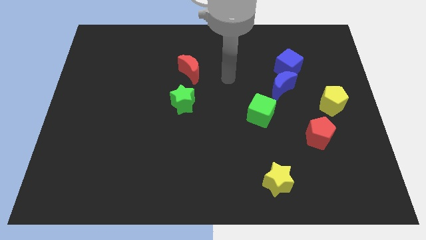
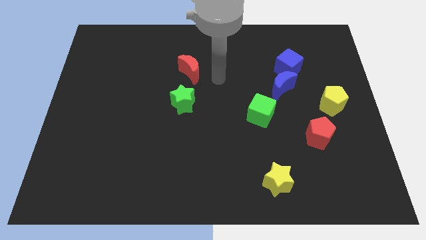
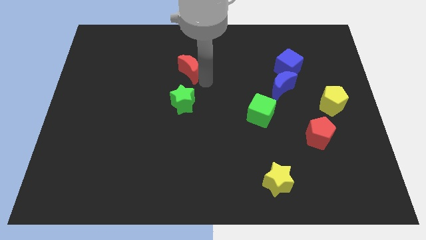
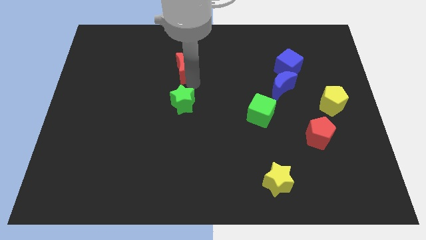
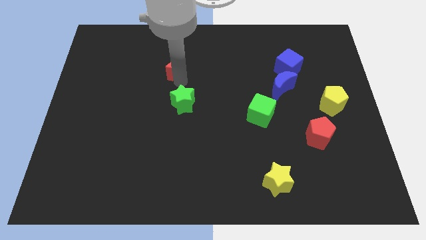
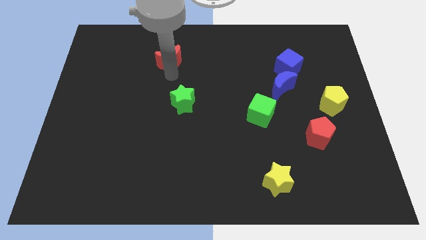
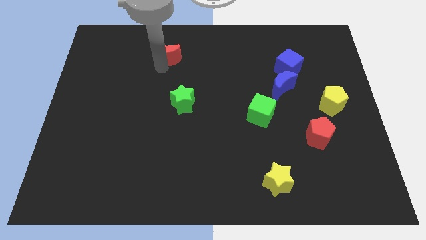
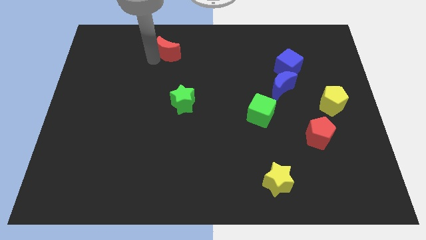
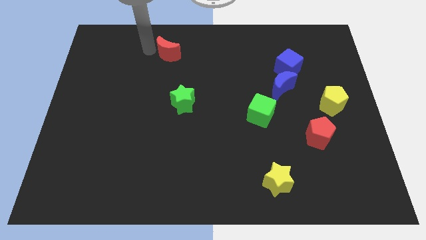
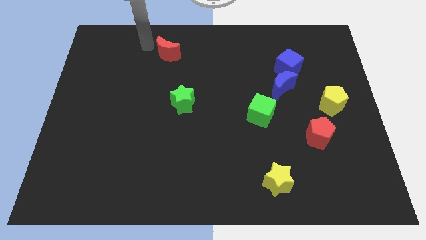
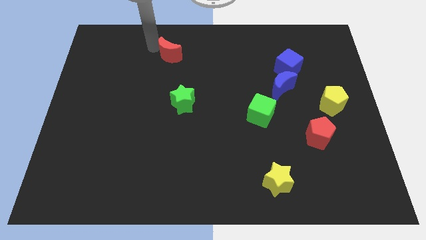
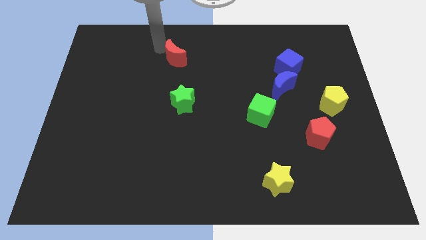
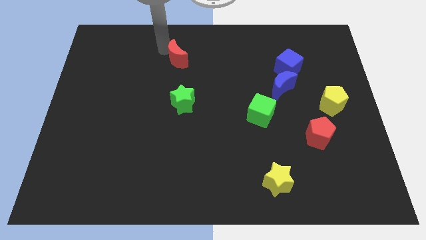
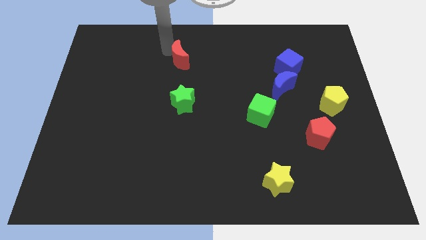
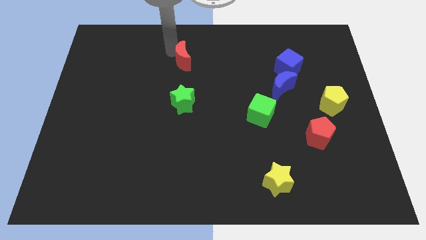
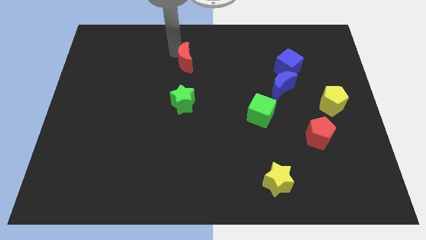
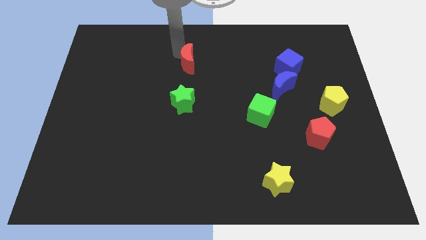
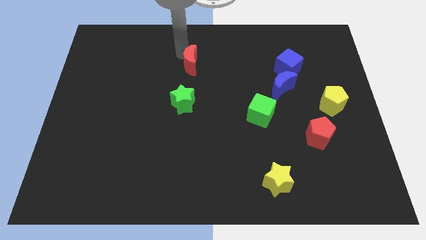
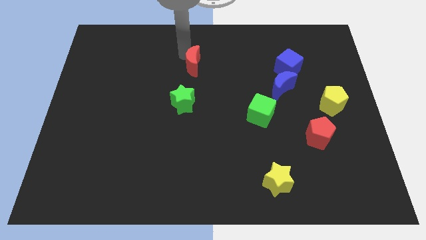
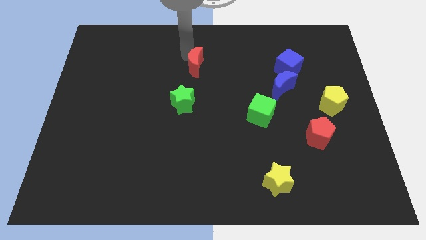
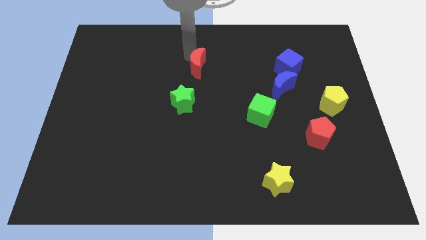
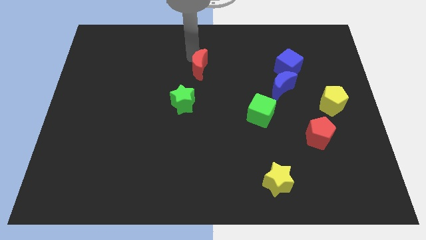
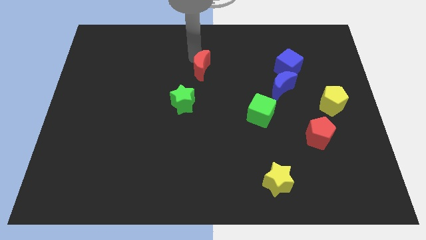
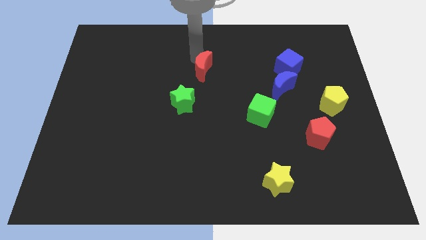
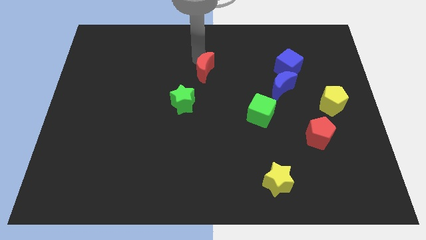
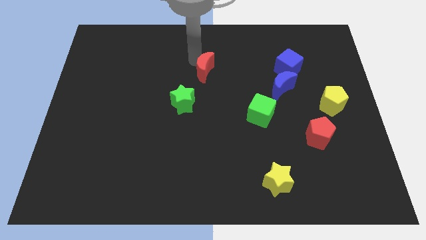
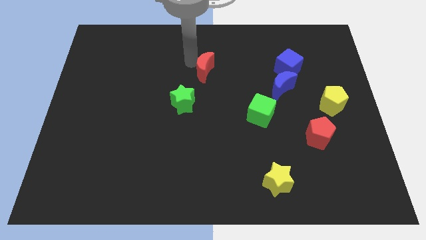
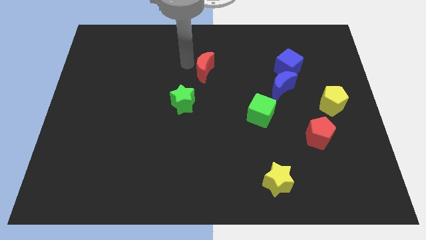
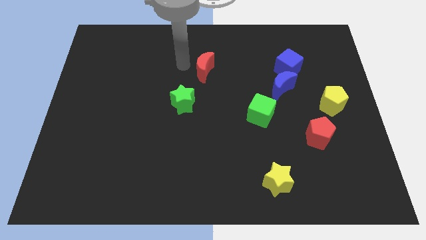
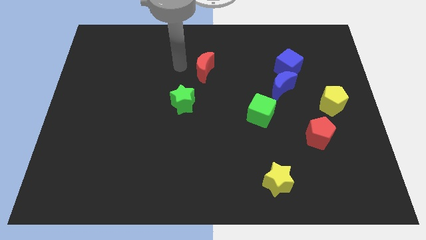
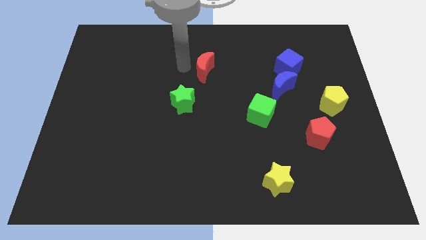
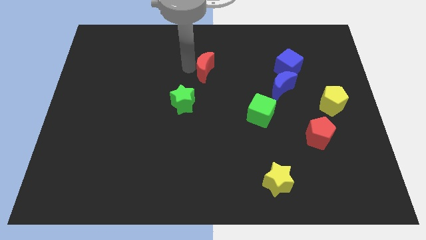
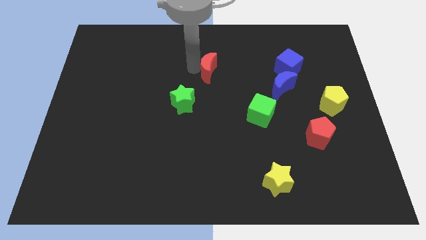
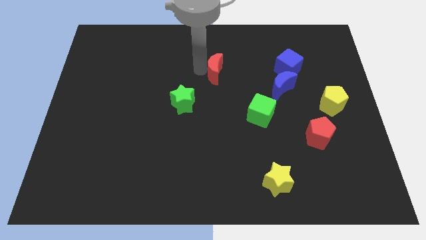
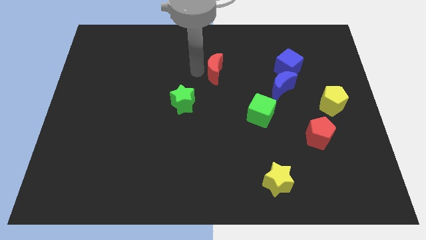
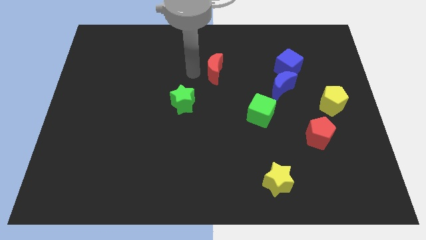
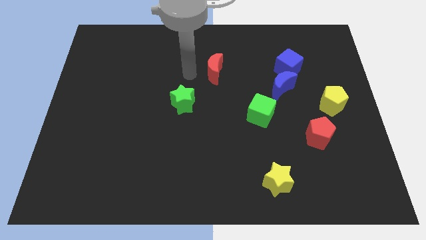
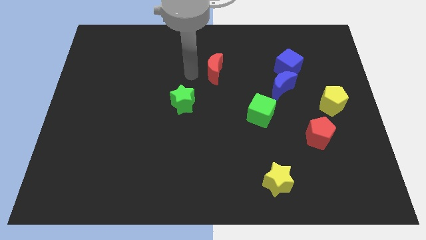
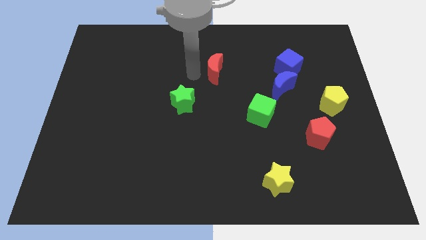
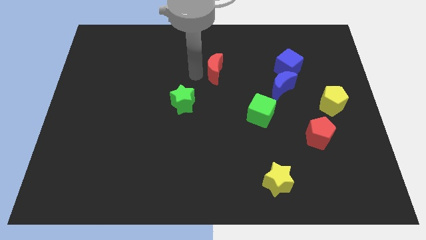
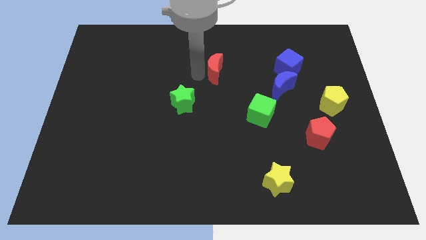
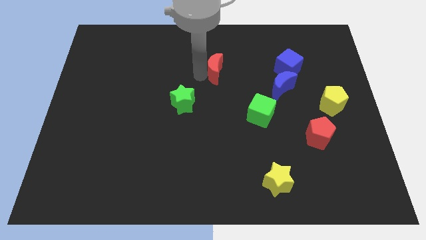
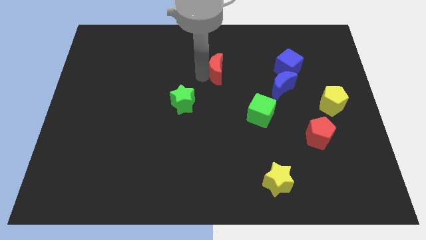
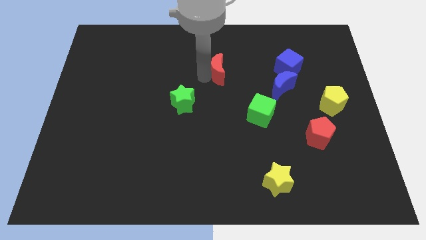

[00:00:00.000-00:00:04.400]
slightly slide the red moon to the right

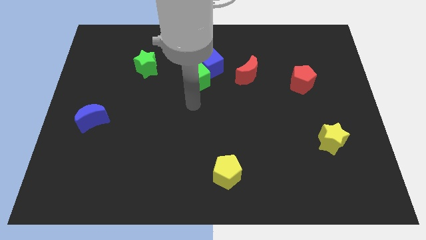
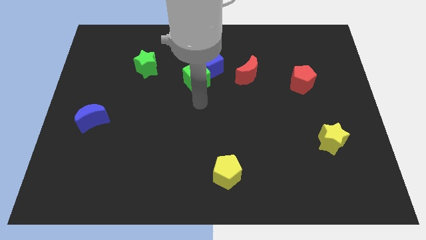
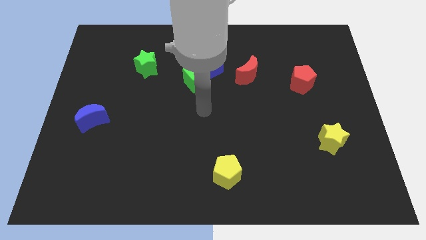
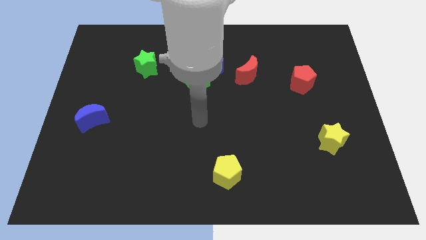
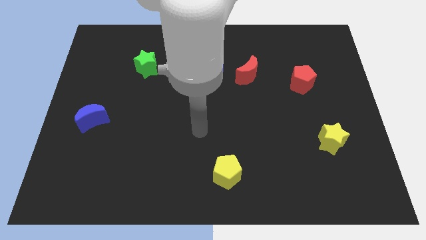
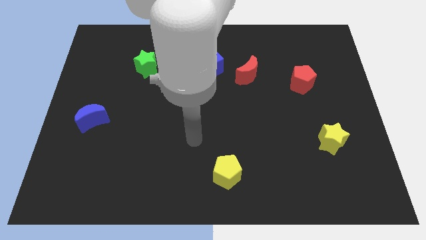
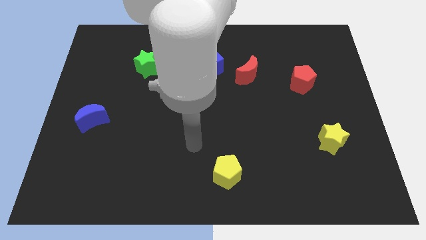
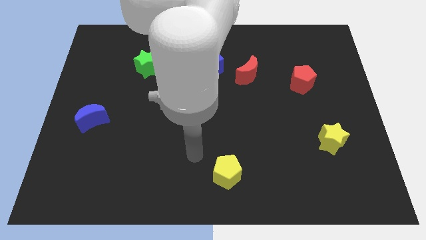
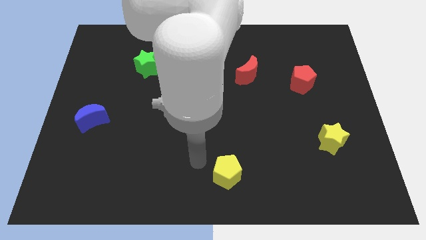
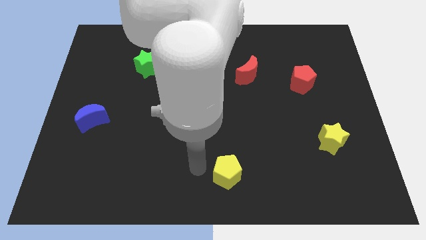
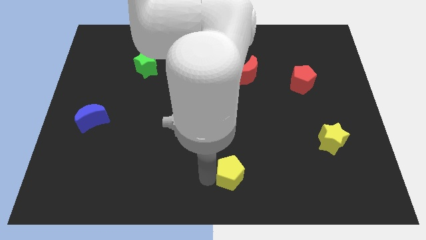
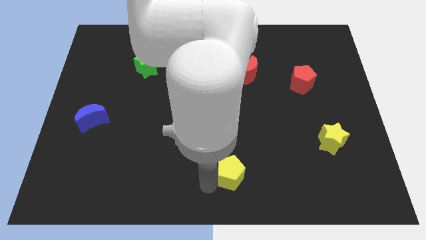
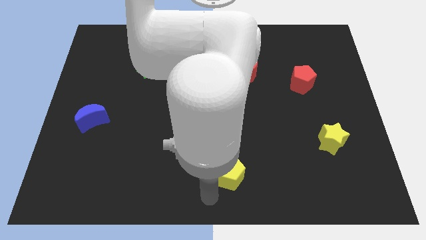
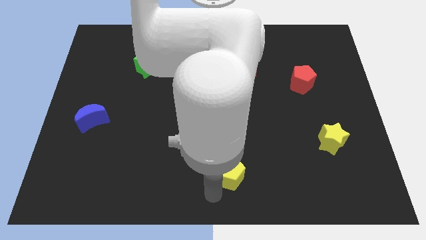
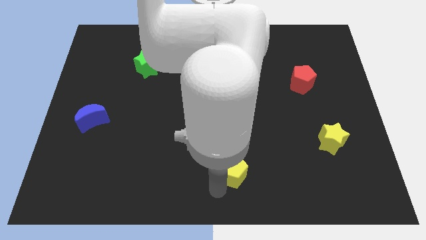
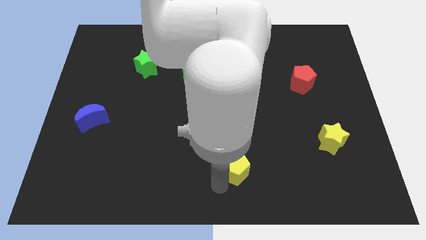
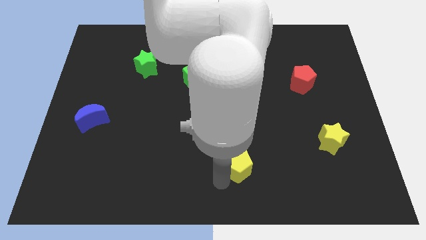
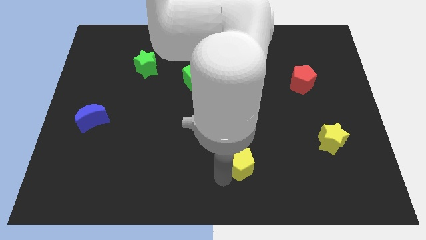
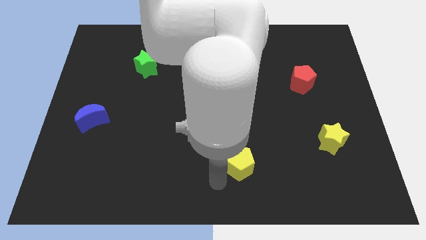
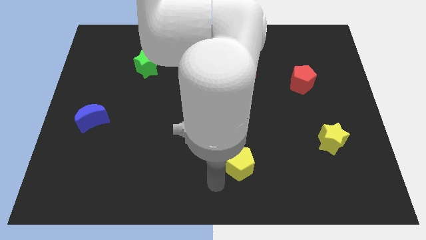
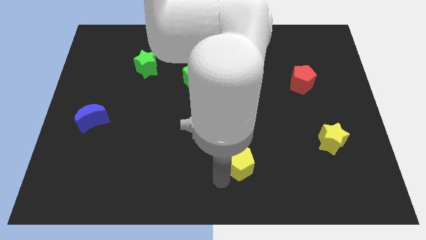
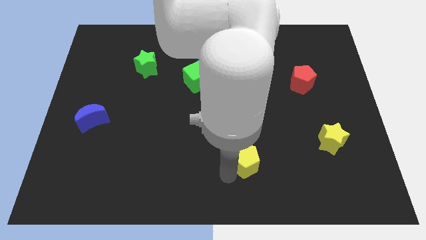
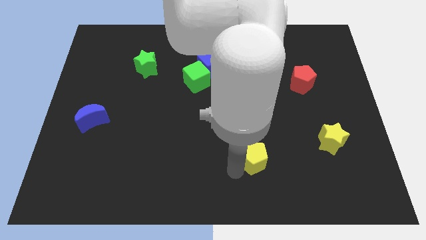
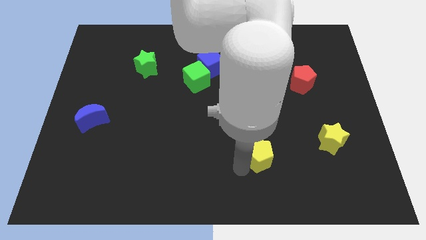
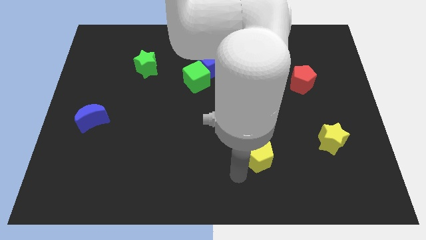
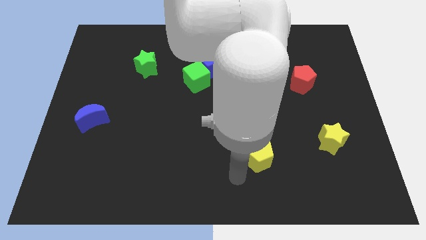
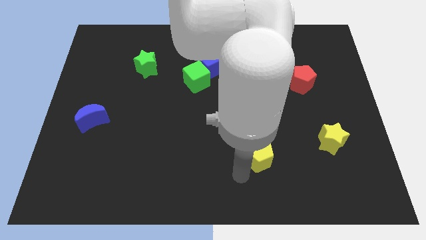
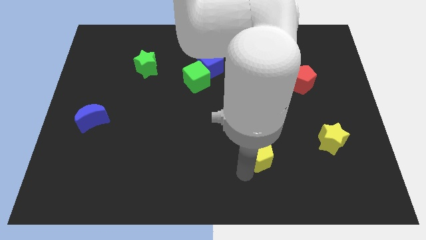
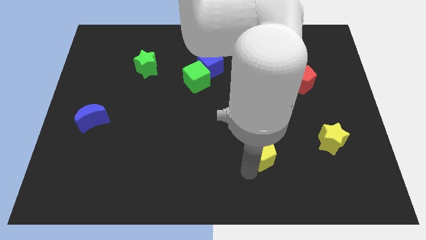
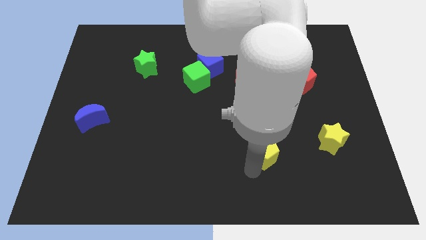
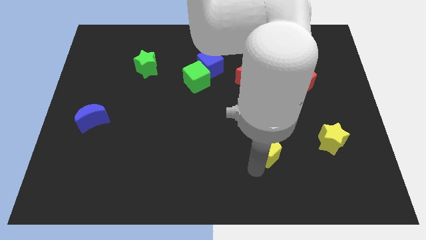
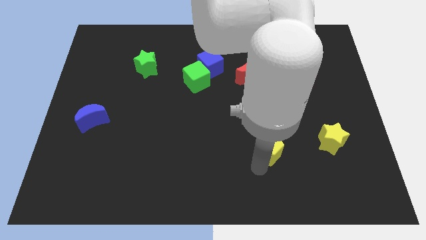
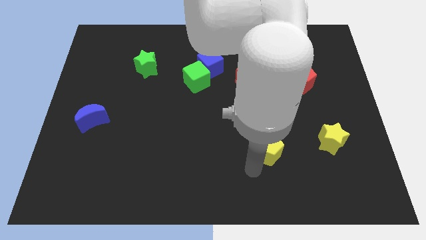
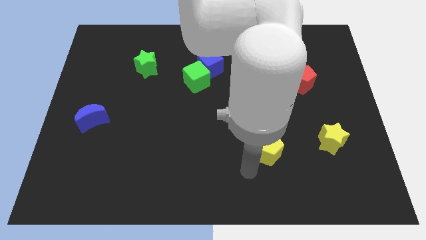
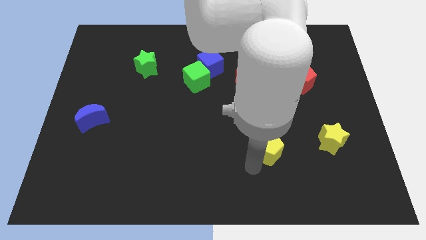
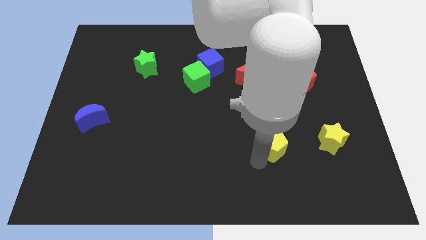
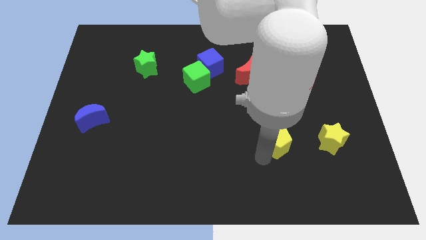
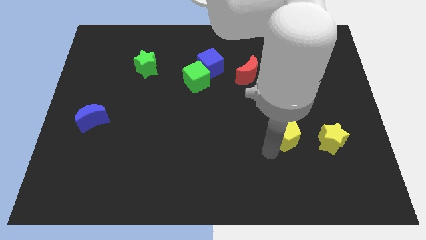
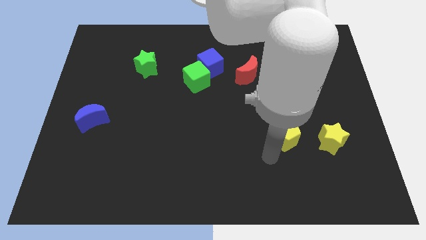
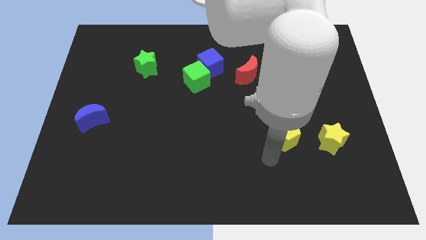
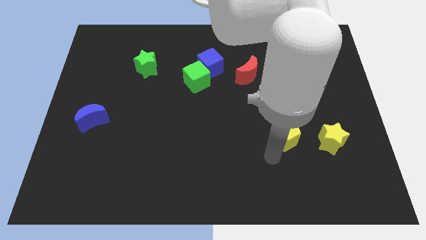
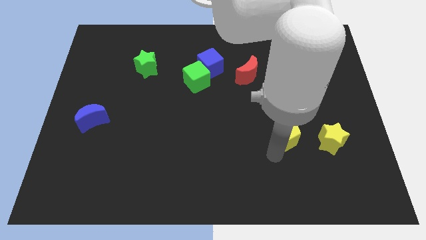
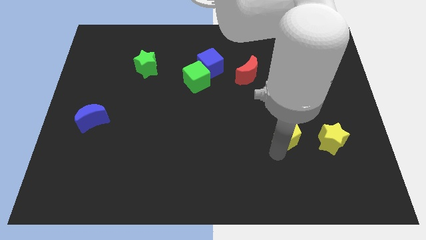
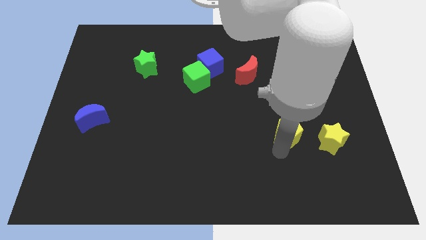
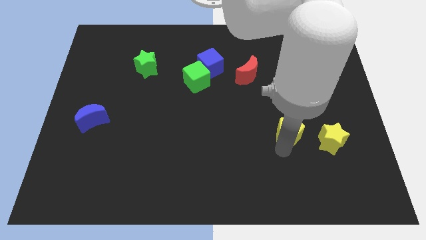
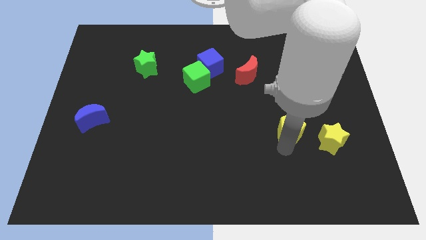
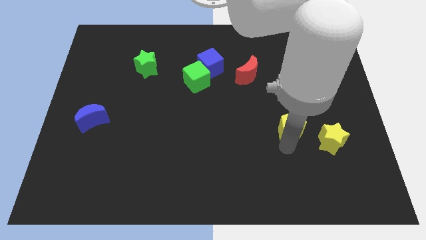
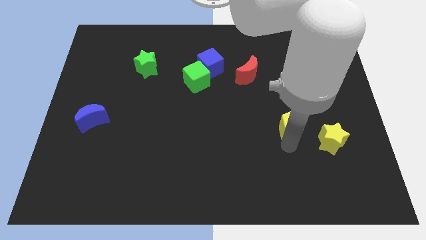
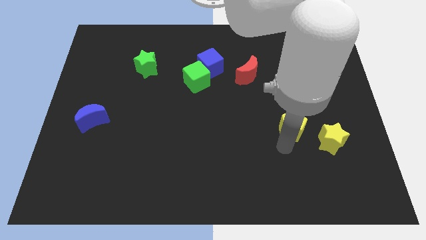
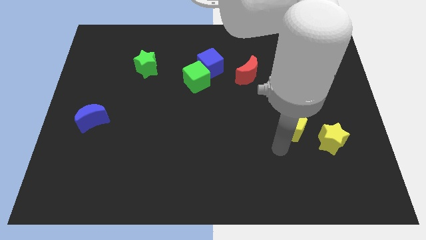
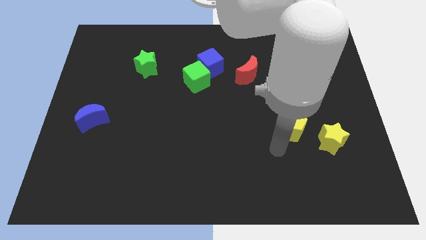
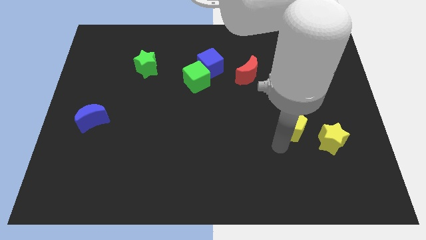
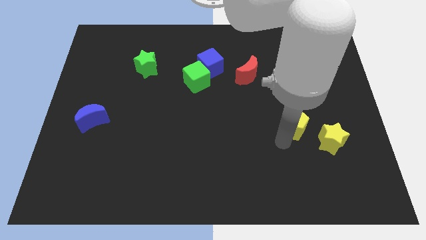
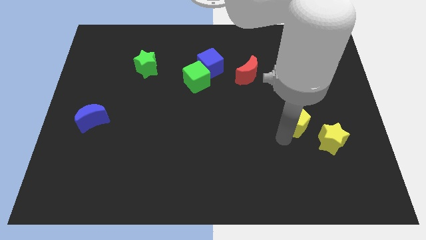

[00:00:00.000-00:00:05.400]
move the yellow pentagon up and right diagonally
